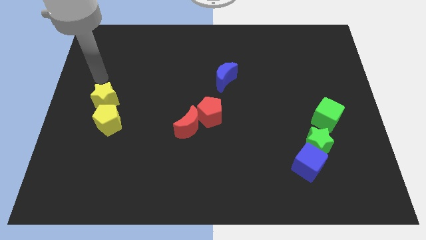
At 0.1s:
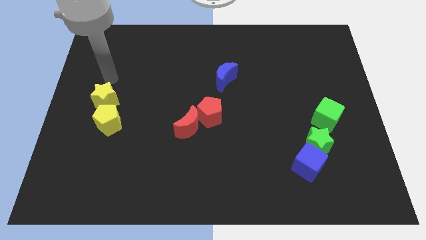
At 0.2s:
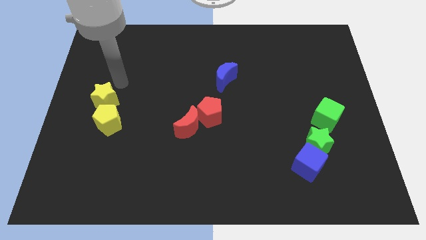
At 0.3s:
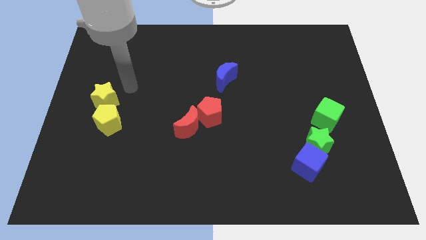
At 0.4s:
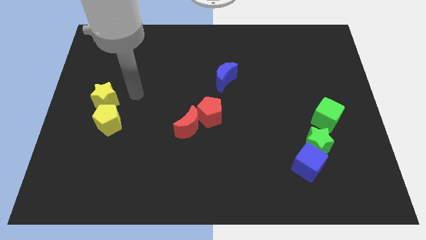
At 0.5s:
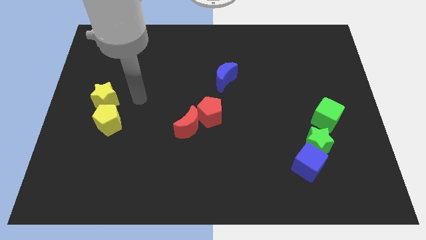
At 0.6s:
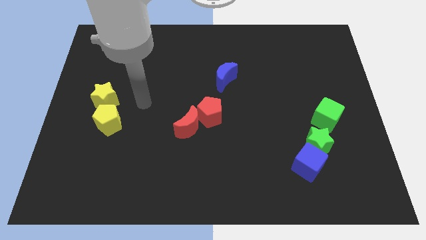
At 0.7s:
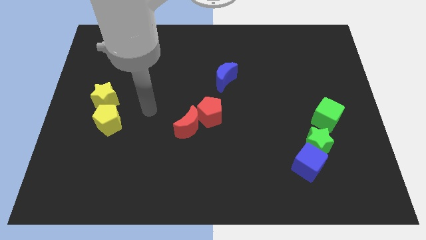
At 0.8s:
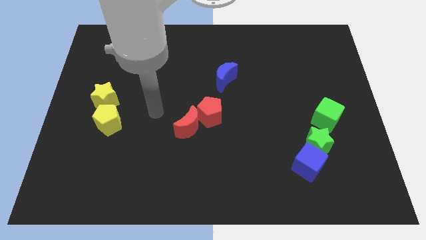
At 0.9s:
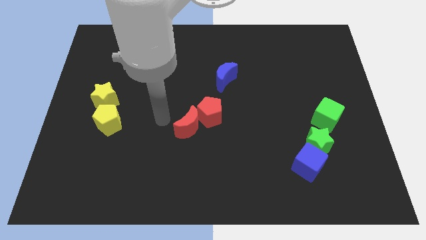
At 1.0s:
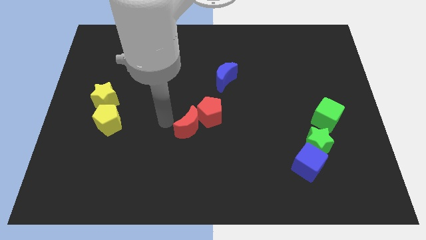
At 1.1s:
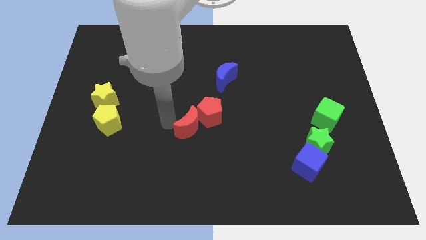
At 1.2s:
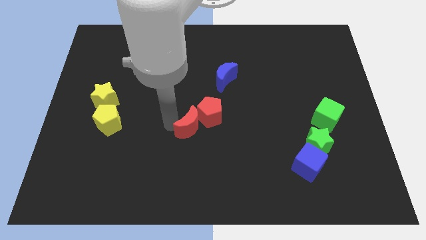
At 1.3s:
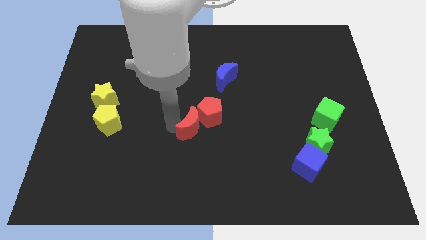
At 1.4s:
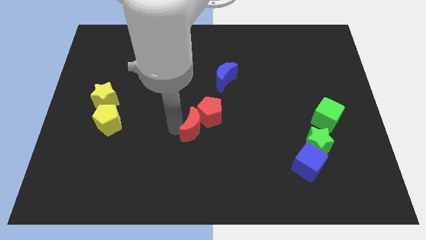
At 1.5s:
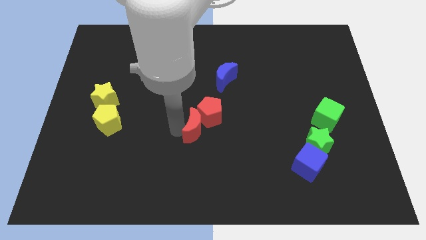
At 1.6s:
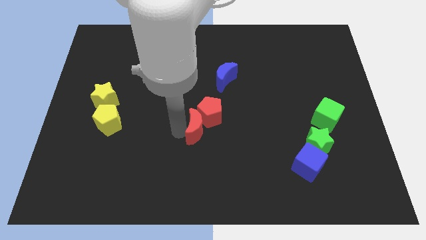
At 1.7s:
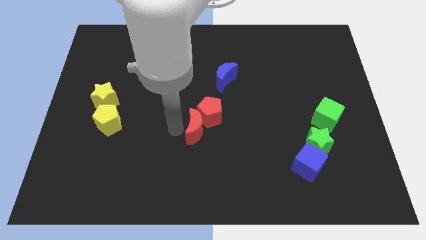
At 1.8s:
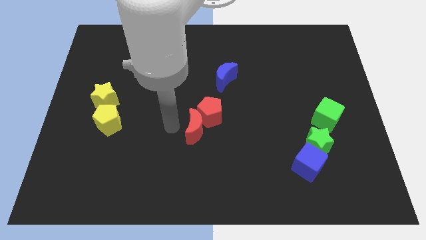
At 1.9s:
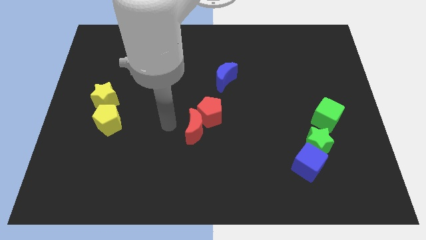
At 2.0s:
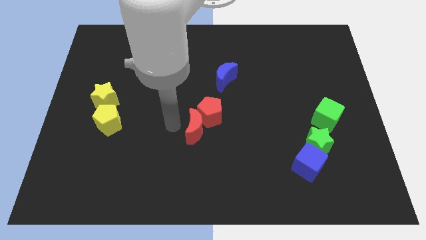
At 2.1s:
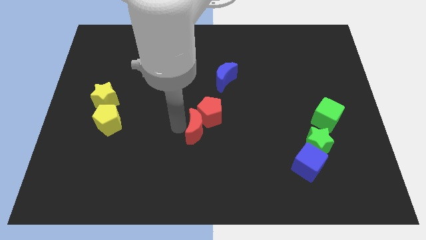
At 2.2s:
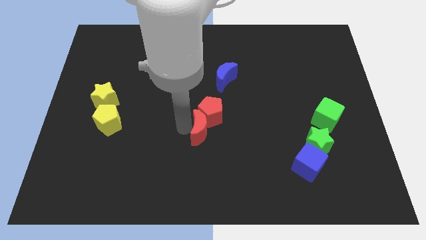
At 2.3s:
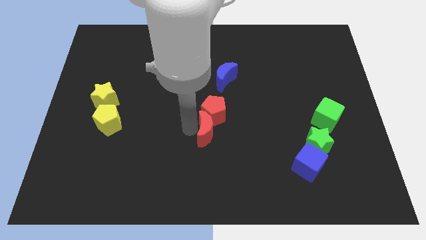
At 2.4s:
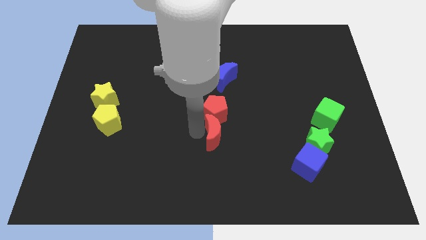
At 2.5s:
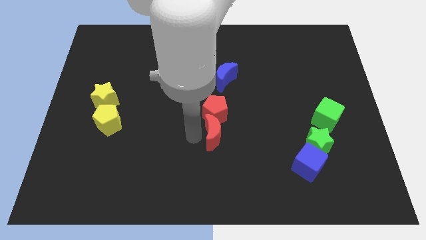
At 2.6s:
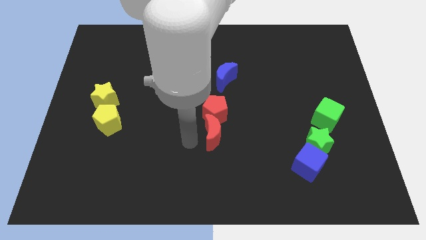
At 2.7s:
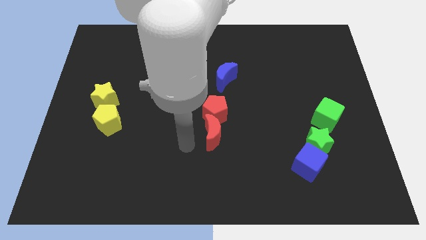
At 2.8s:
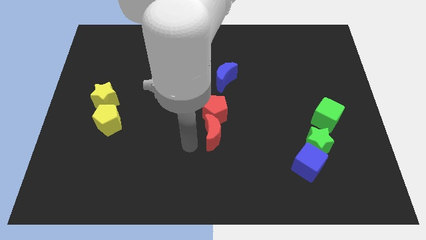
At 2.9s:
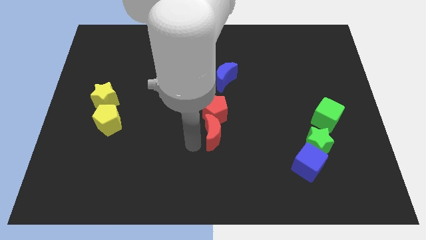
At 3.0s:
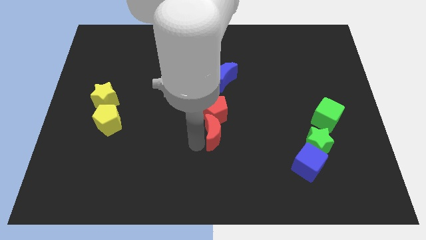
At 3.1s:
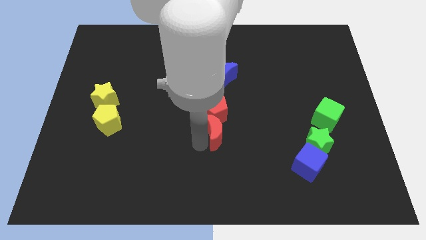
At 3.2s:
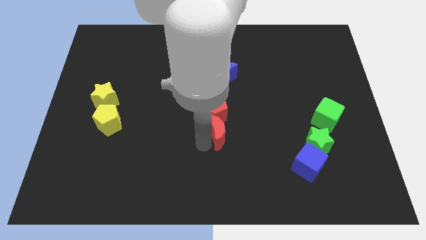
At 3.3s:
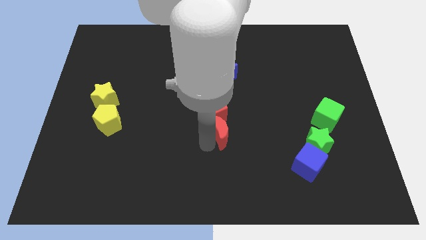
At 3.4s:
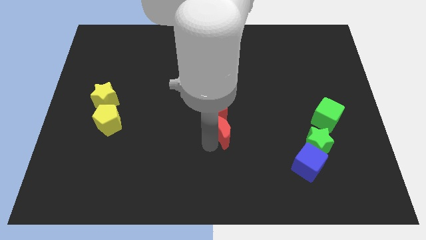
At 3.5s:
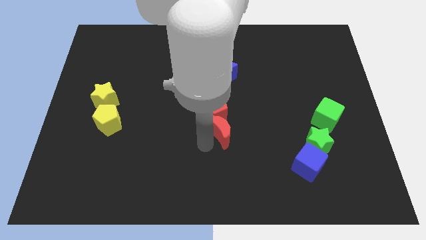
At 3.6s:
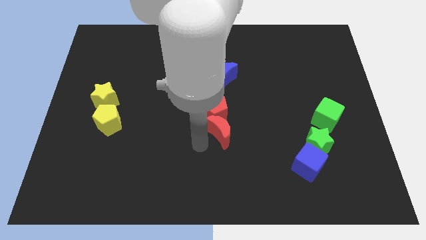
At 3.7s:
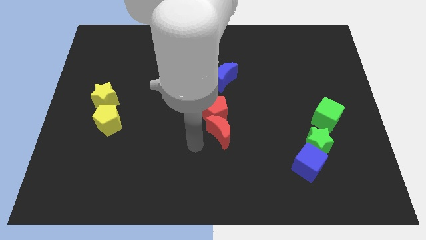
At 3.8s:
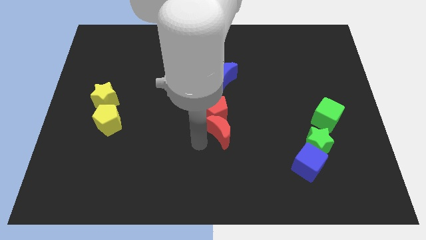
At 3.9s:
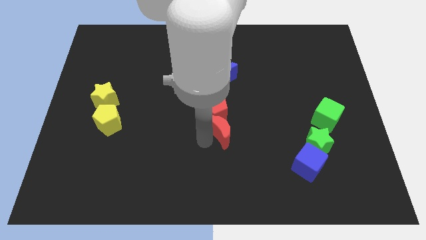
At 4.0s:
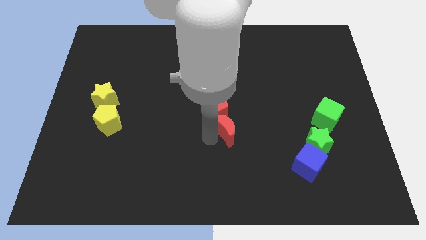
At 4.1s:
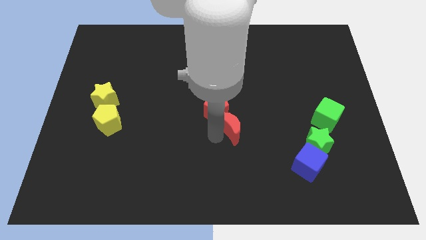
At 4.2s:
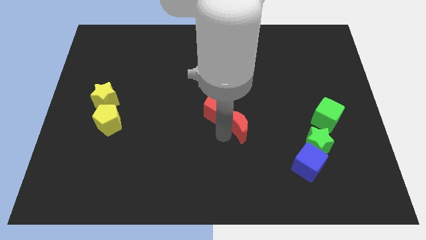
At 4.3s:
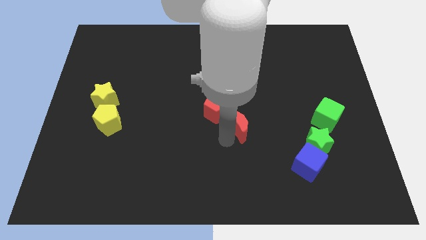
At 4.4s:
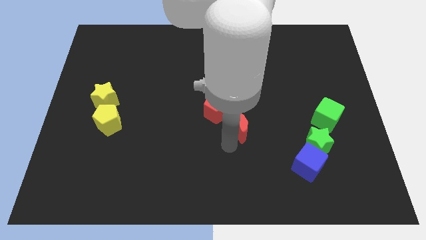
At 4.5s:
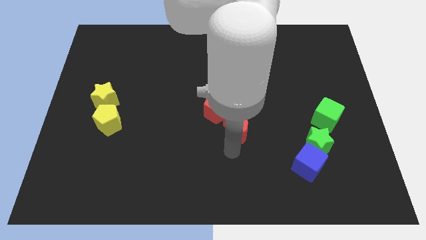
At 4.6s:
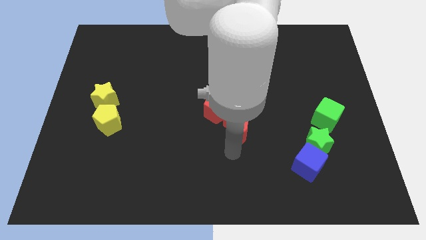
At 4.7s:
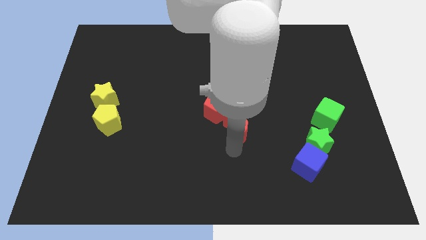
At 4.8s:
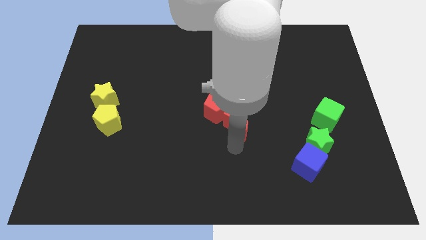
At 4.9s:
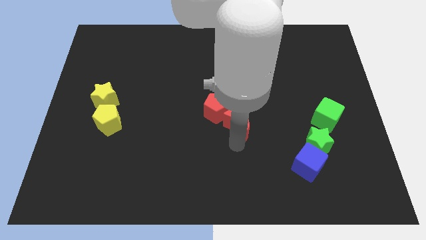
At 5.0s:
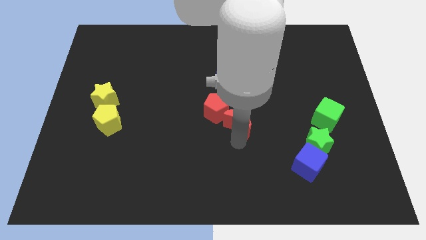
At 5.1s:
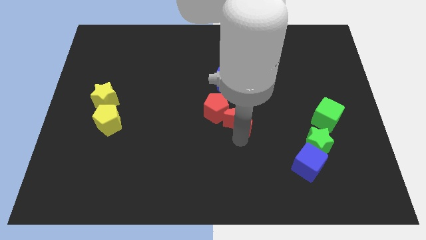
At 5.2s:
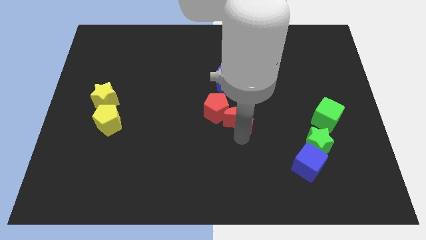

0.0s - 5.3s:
slightly push the red moon upwards and to the right diagonally

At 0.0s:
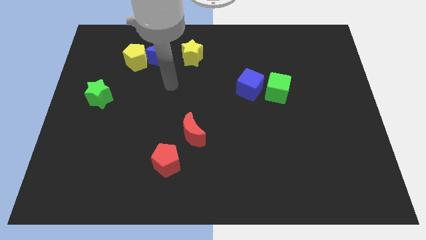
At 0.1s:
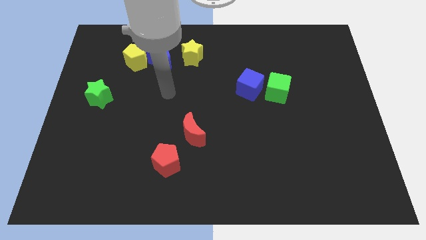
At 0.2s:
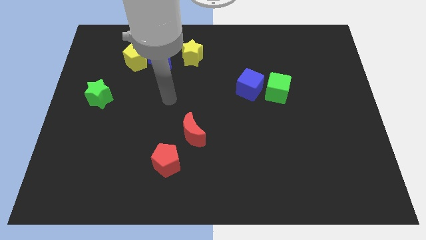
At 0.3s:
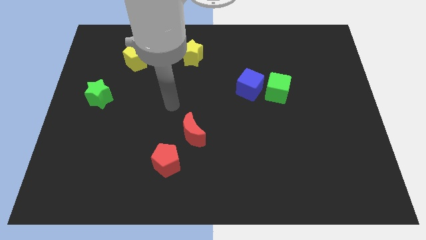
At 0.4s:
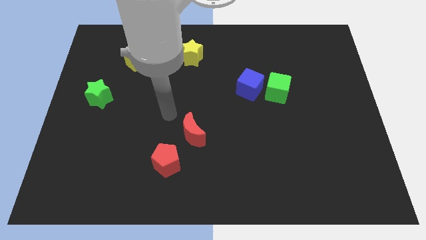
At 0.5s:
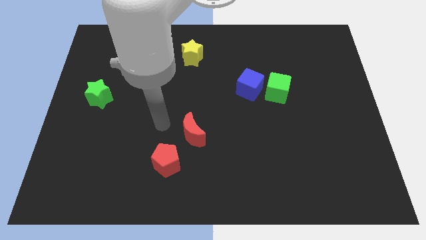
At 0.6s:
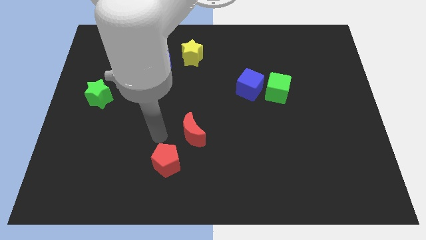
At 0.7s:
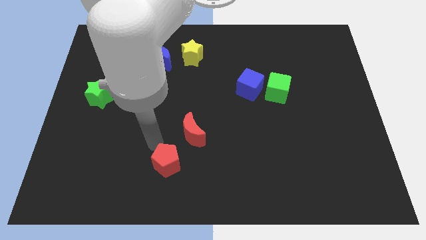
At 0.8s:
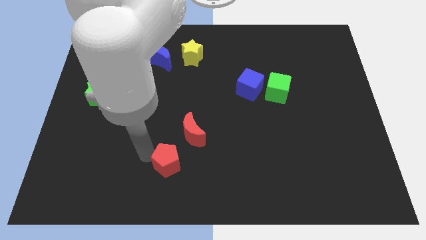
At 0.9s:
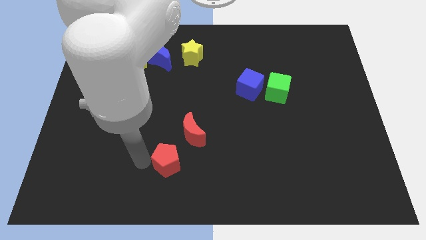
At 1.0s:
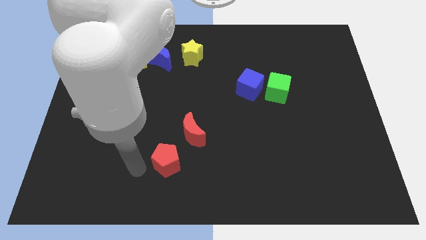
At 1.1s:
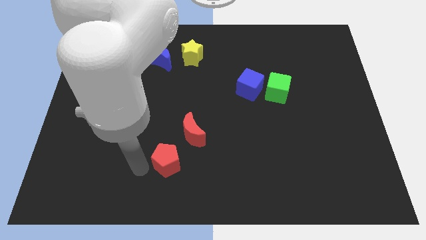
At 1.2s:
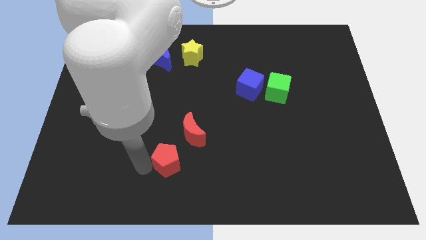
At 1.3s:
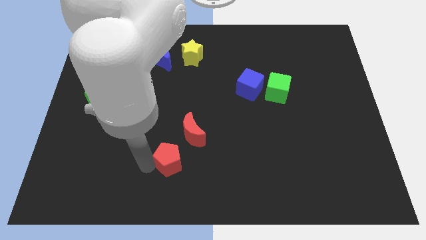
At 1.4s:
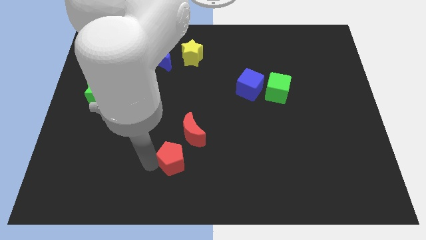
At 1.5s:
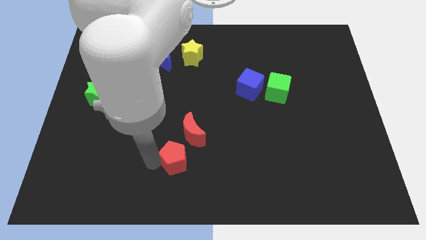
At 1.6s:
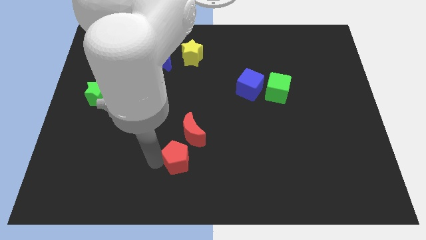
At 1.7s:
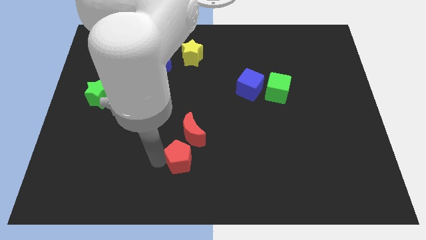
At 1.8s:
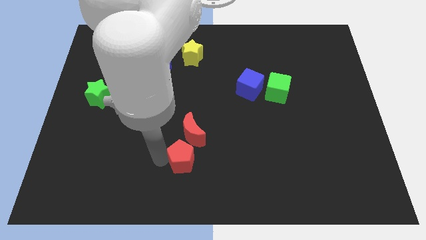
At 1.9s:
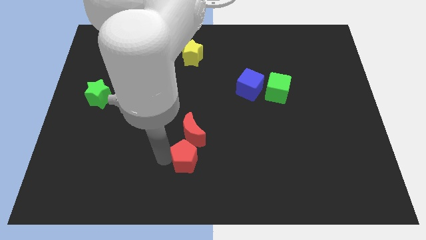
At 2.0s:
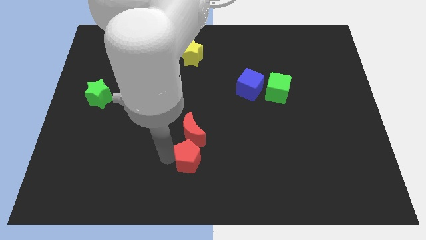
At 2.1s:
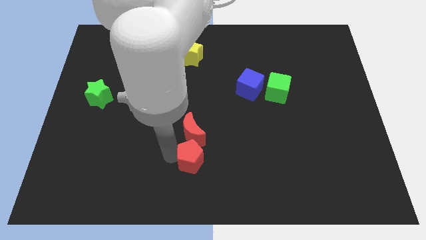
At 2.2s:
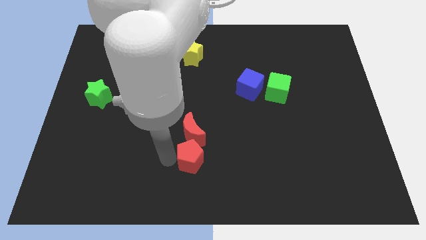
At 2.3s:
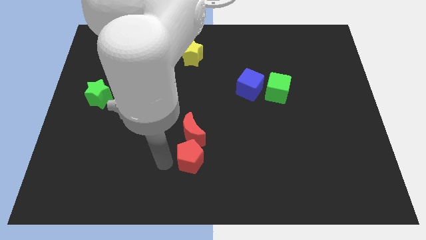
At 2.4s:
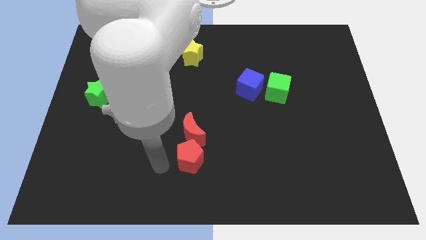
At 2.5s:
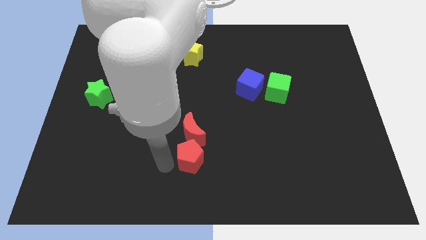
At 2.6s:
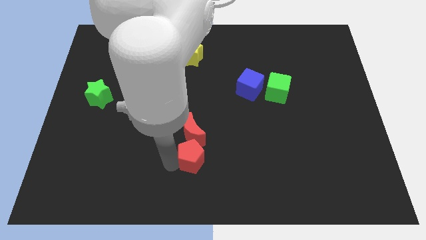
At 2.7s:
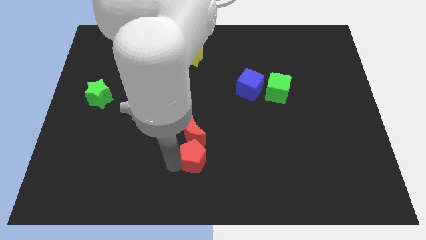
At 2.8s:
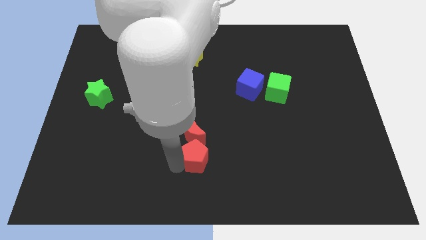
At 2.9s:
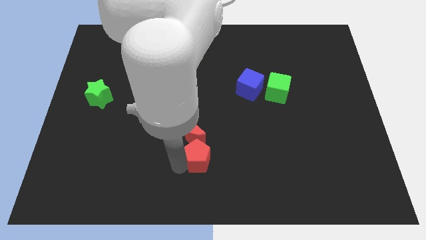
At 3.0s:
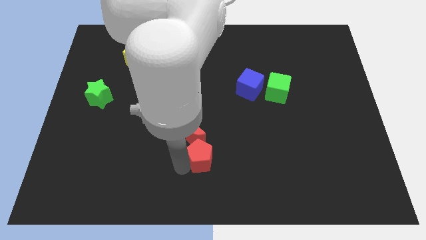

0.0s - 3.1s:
move the red pentagon right a little bit
